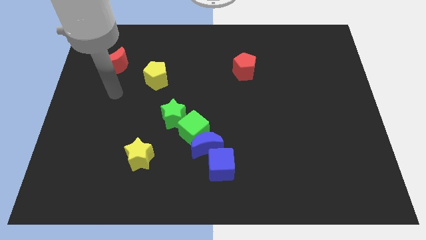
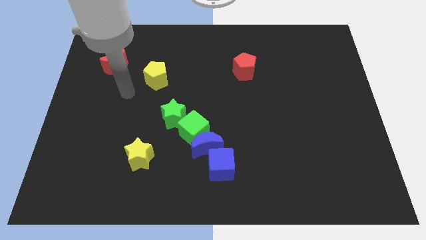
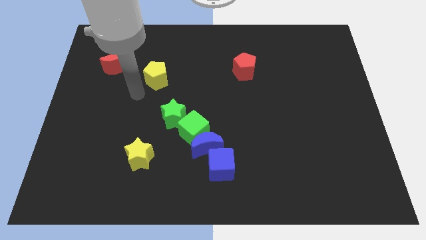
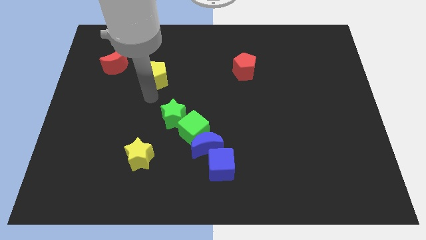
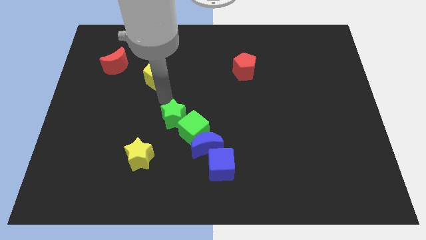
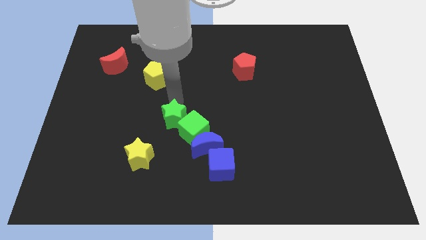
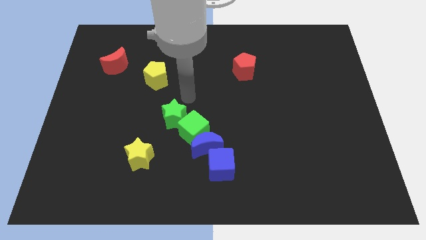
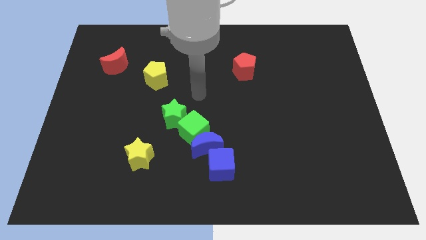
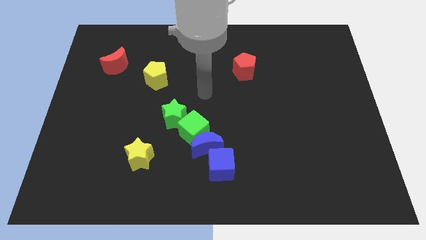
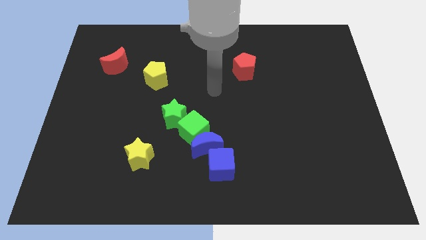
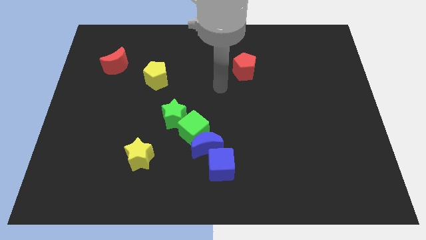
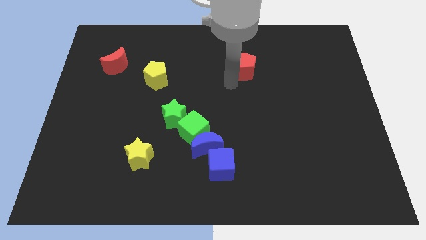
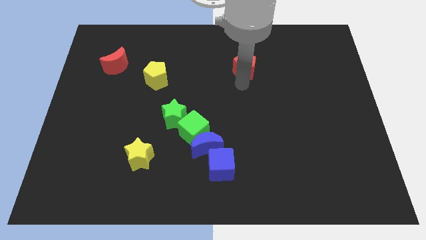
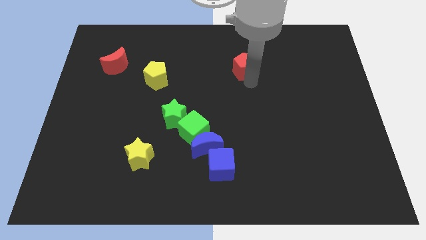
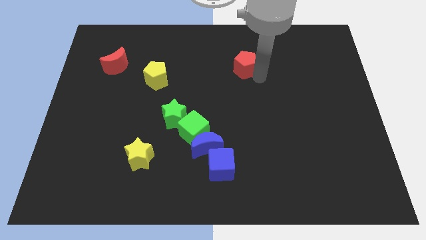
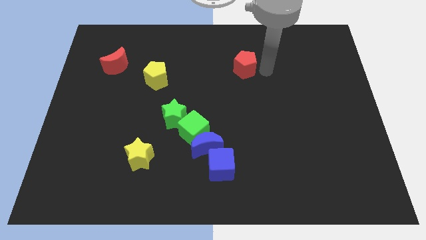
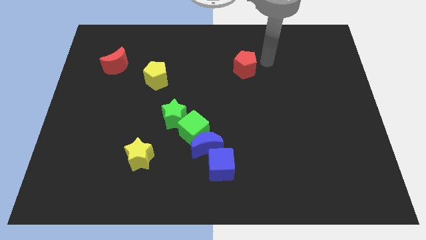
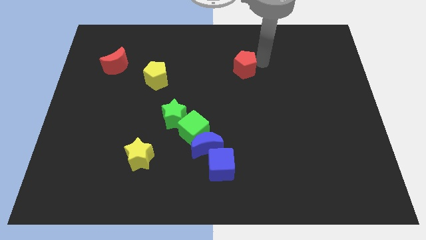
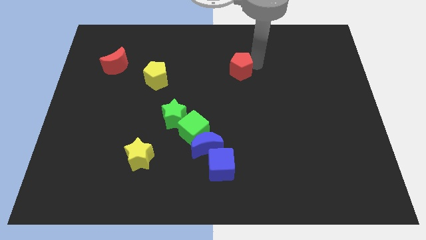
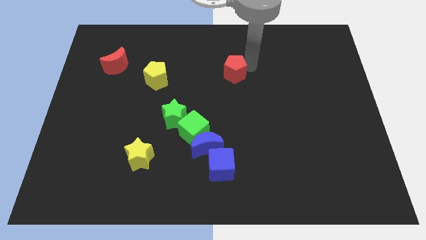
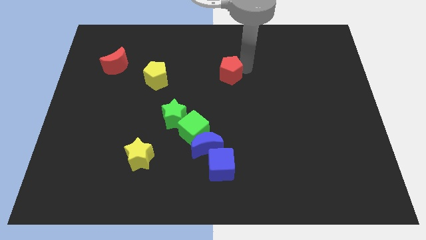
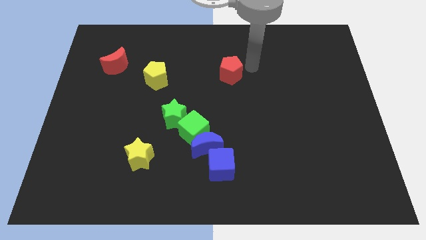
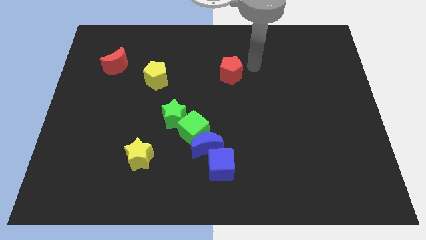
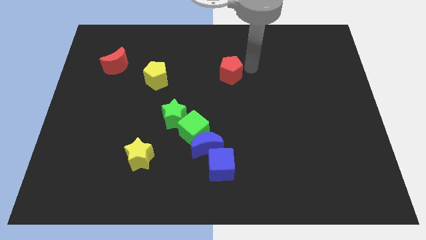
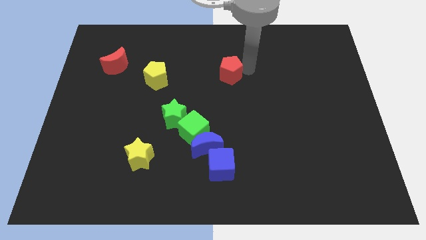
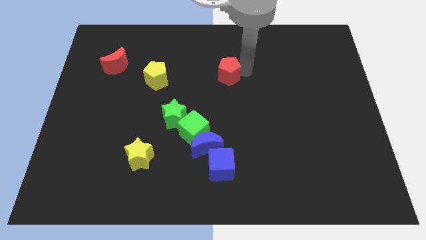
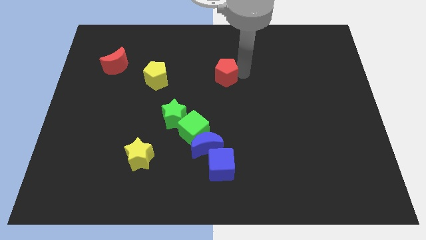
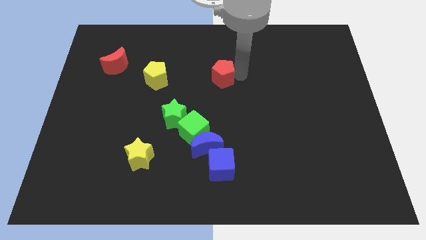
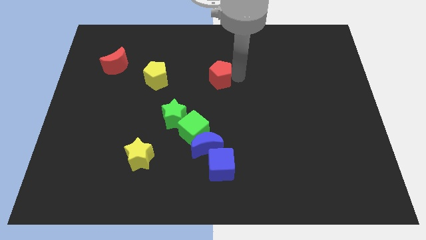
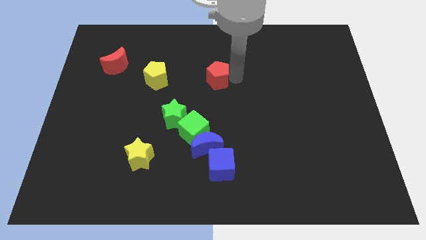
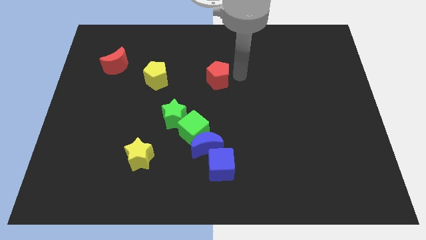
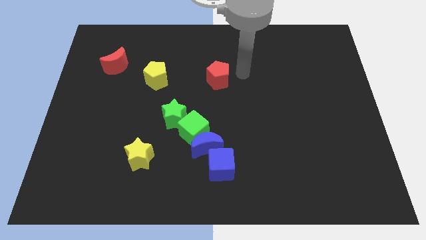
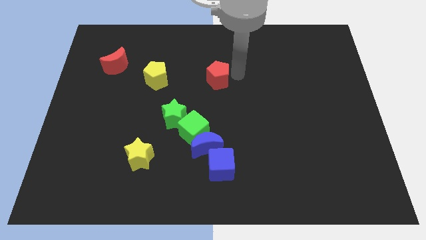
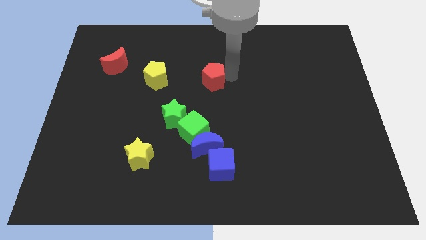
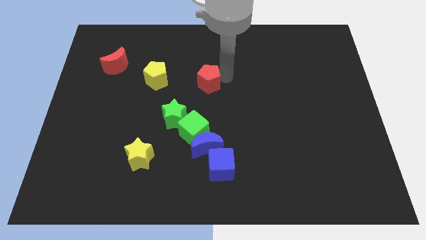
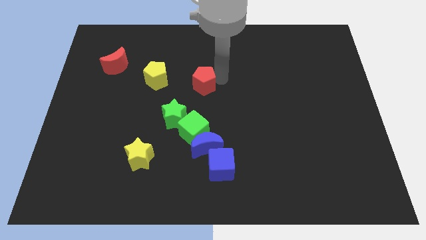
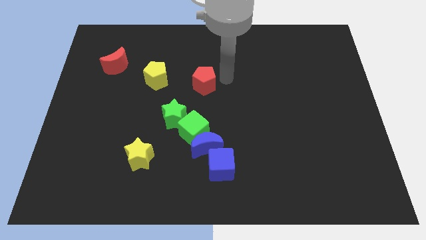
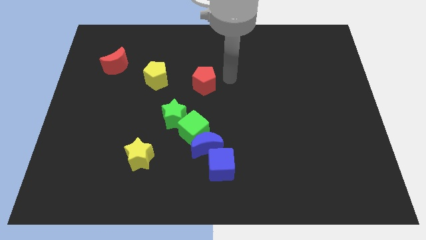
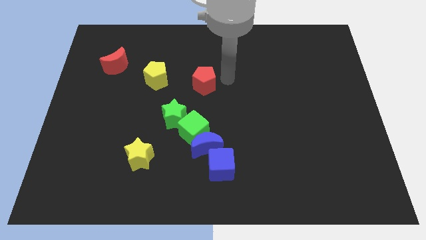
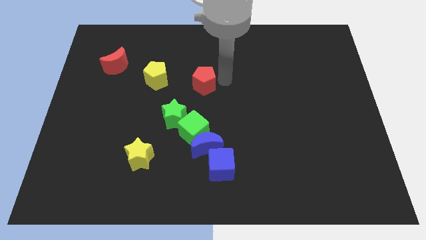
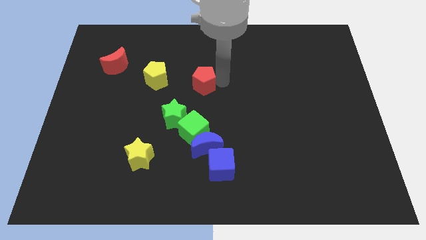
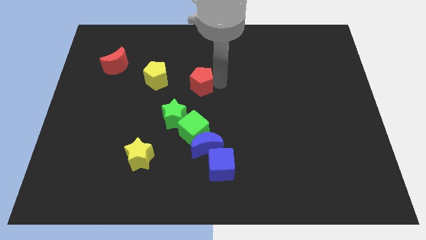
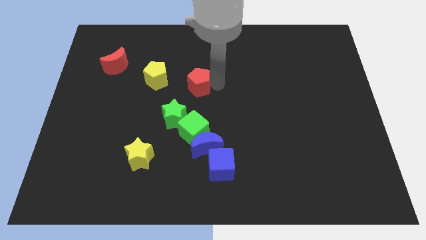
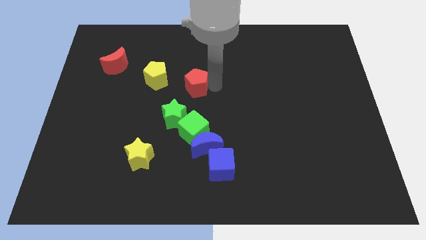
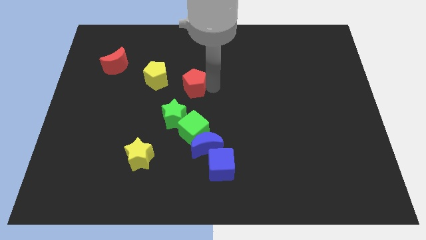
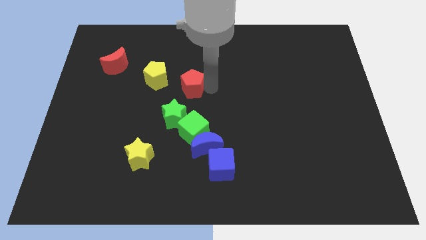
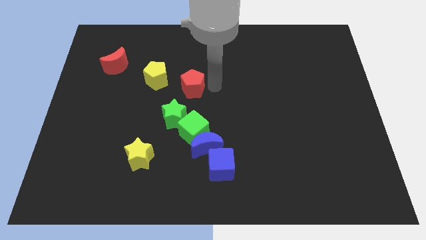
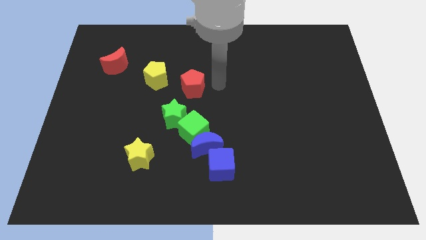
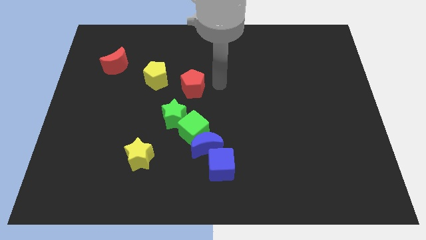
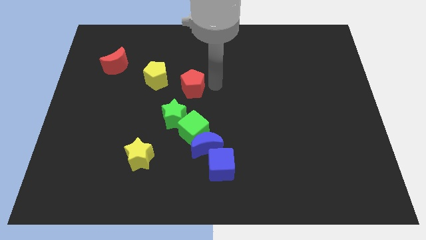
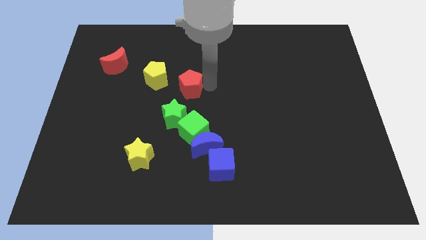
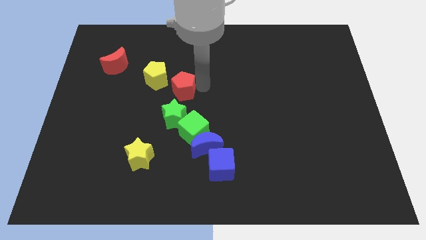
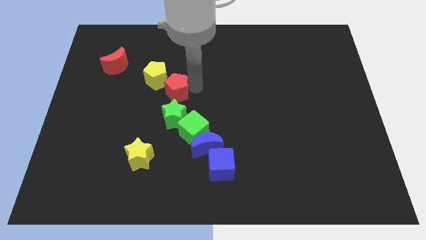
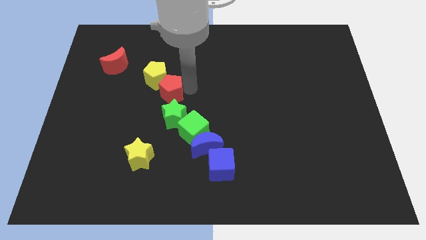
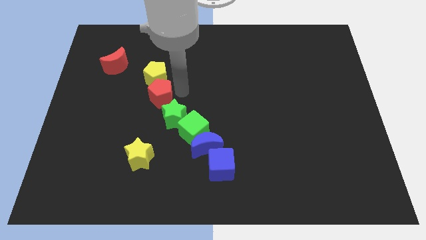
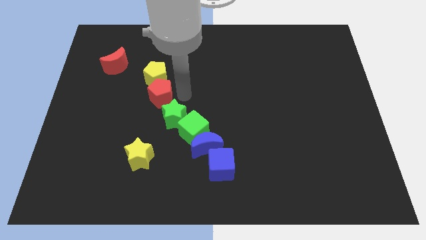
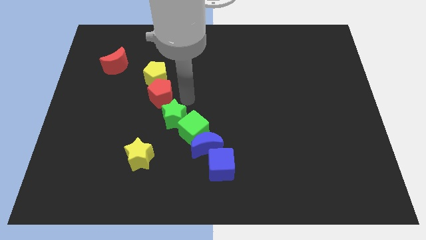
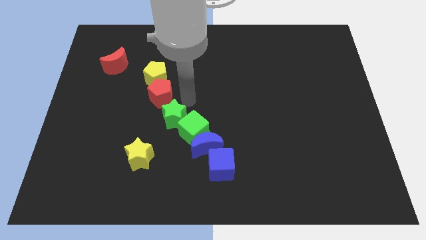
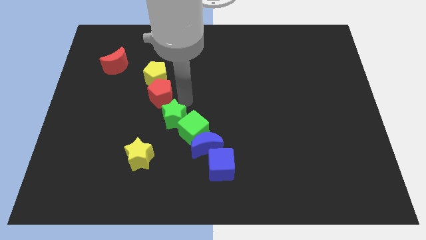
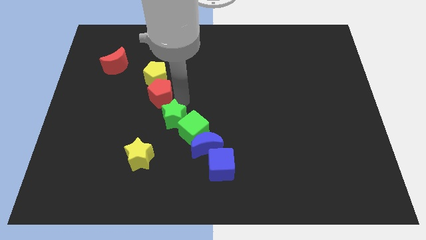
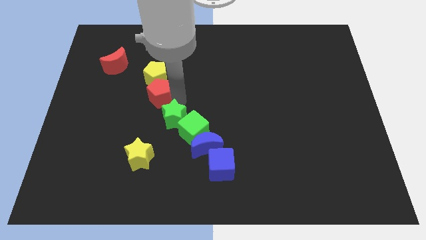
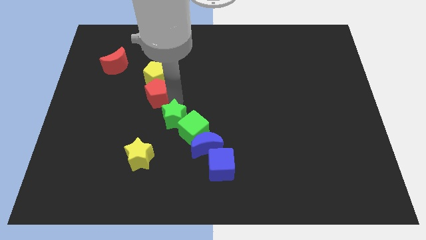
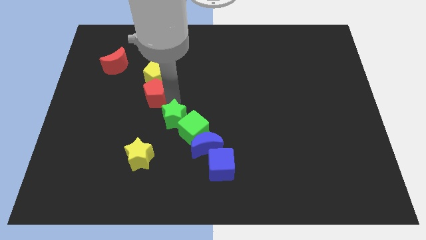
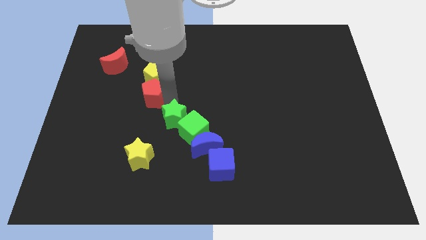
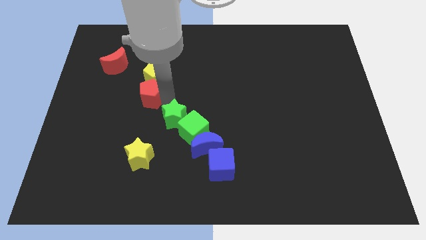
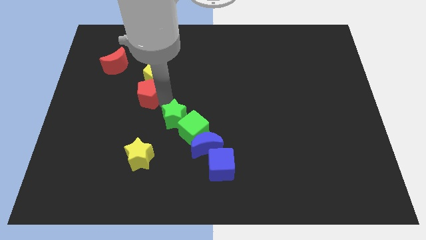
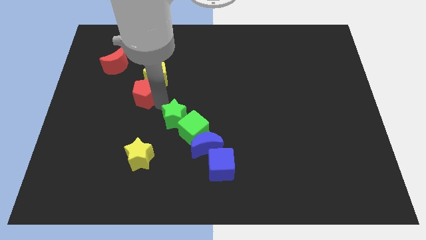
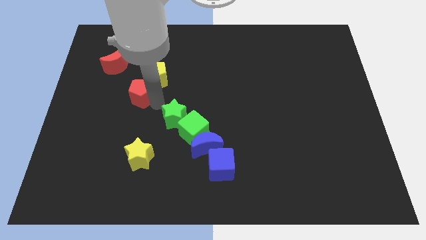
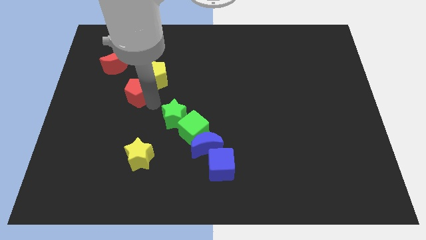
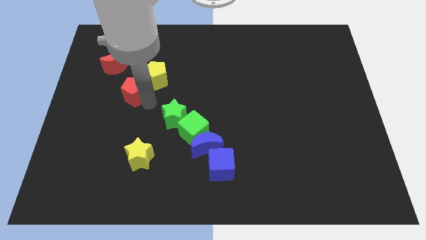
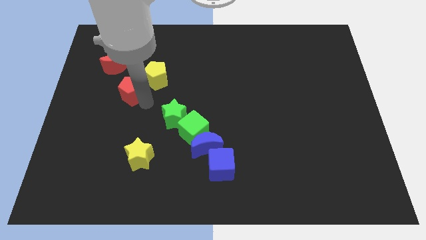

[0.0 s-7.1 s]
move the red pentagon to the left side of the yellow pentagon
